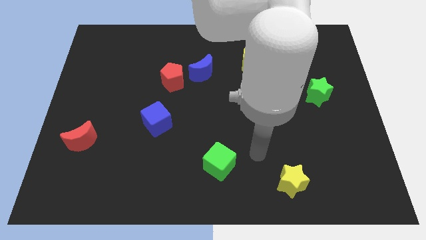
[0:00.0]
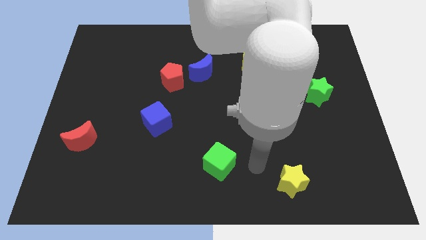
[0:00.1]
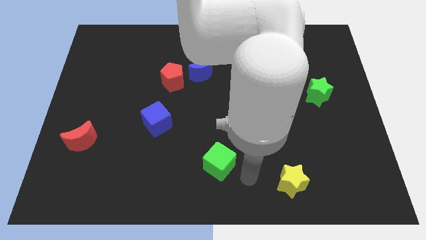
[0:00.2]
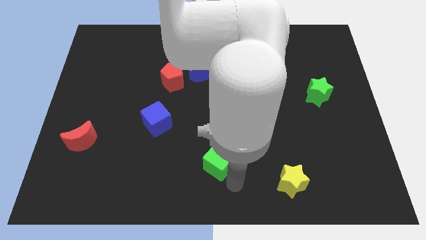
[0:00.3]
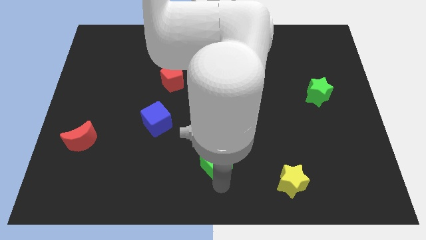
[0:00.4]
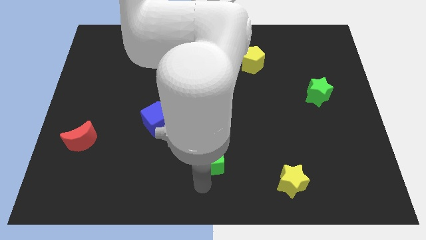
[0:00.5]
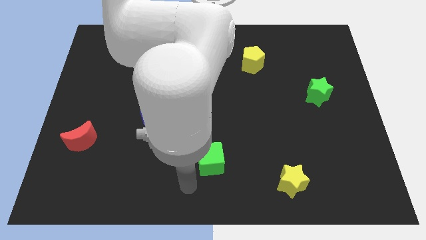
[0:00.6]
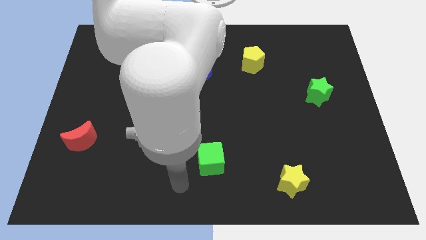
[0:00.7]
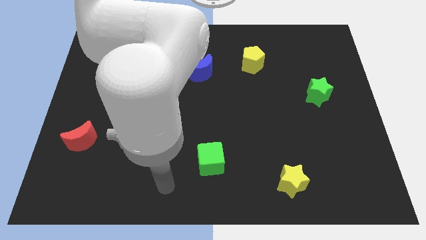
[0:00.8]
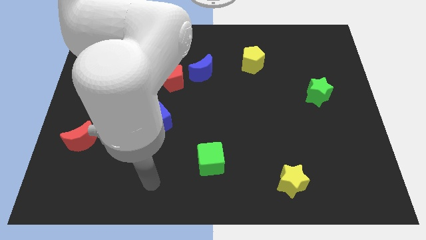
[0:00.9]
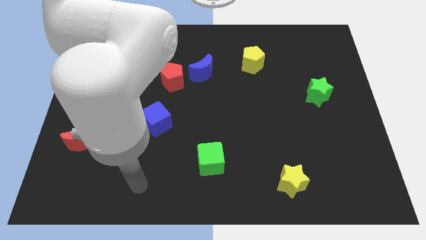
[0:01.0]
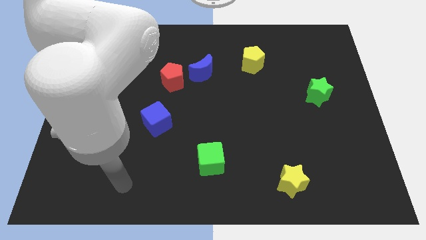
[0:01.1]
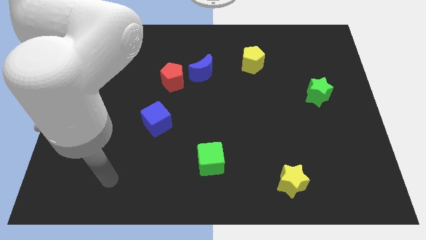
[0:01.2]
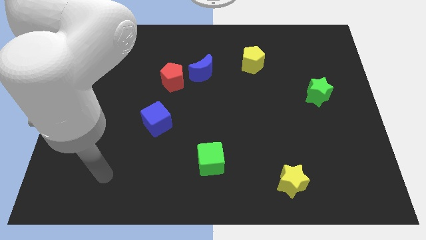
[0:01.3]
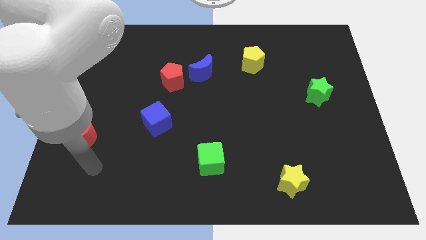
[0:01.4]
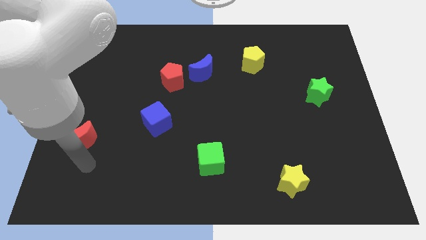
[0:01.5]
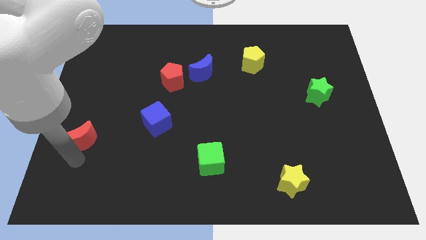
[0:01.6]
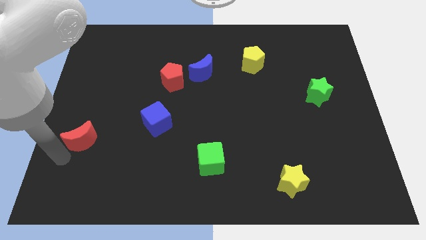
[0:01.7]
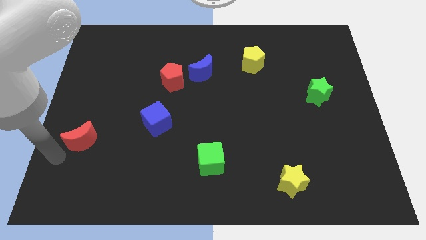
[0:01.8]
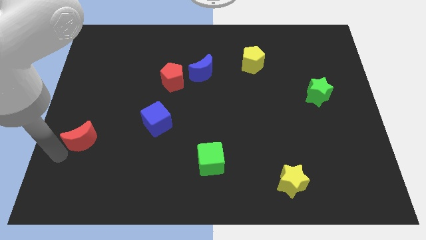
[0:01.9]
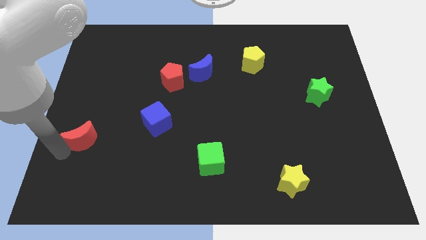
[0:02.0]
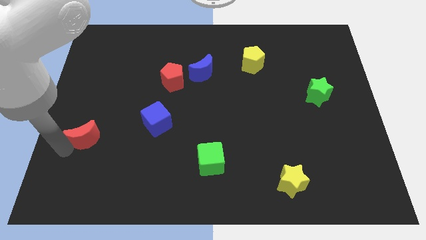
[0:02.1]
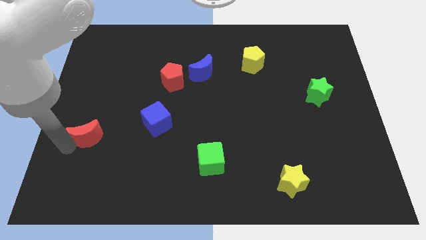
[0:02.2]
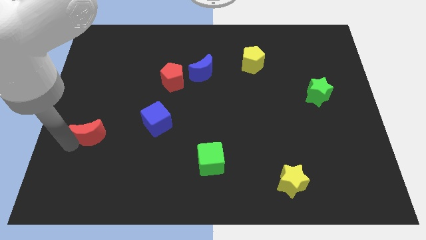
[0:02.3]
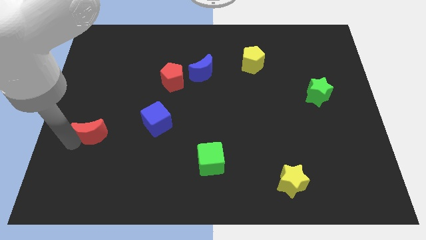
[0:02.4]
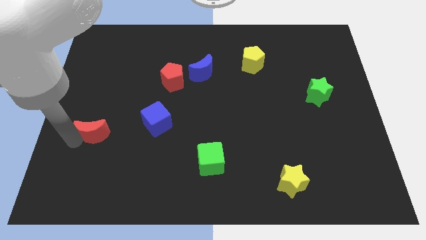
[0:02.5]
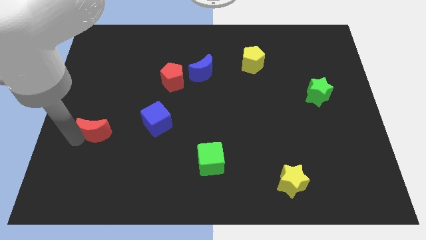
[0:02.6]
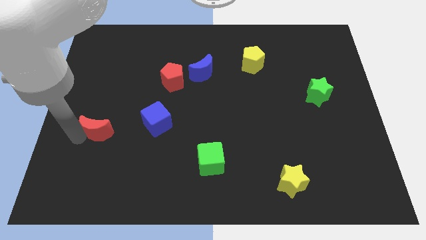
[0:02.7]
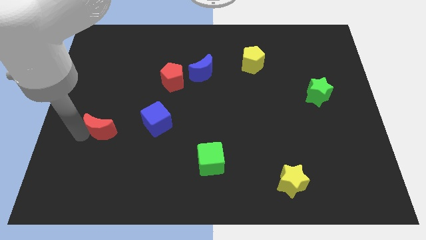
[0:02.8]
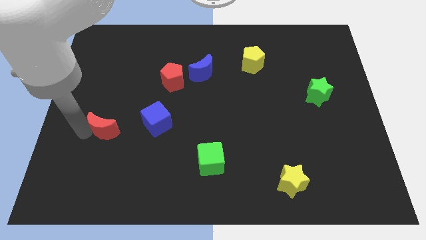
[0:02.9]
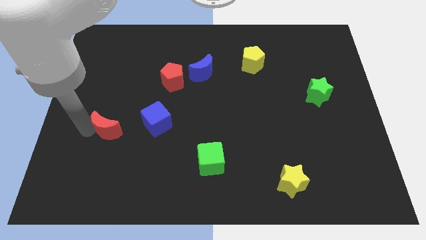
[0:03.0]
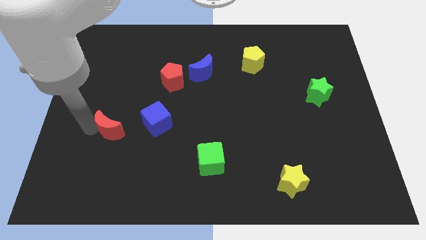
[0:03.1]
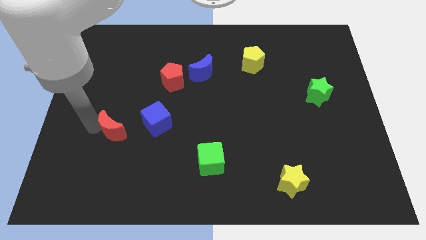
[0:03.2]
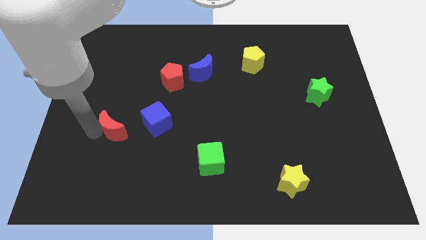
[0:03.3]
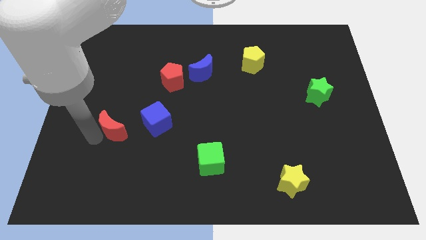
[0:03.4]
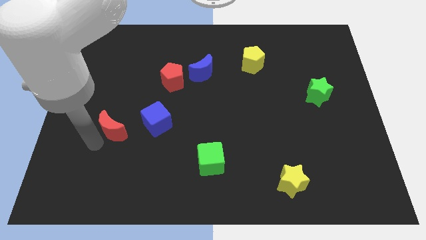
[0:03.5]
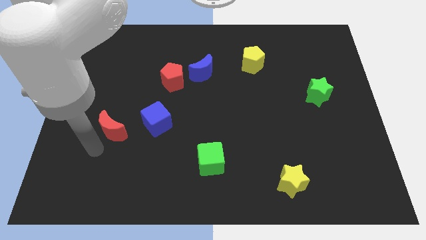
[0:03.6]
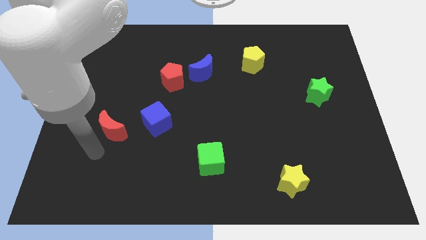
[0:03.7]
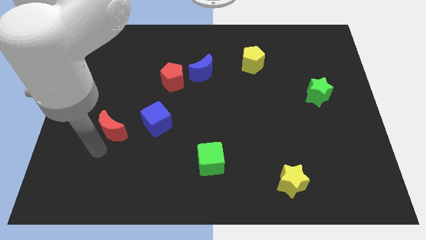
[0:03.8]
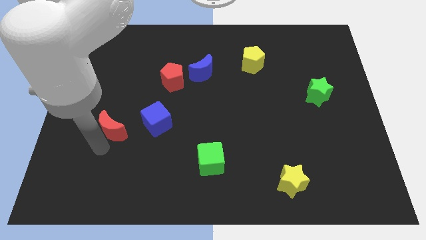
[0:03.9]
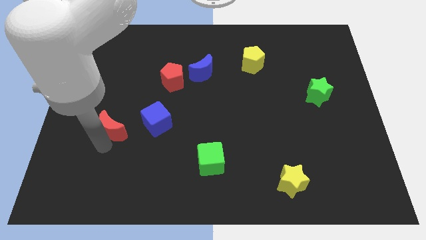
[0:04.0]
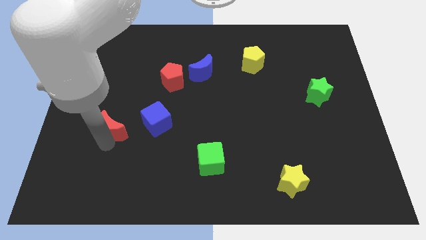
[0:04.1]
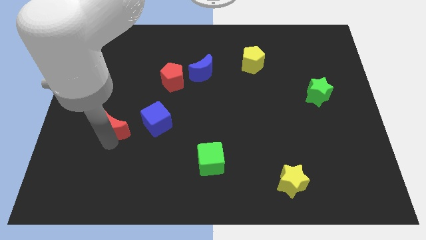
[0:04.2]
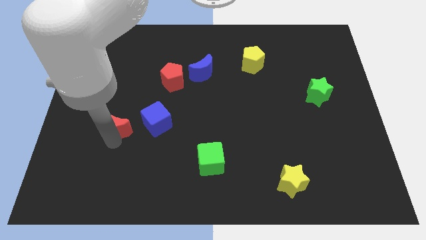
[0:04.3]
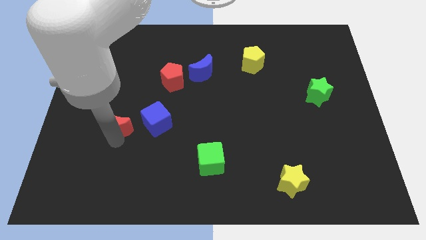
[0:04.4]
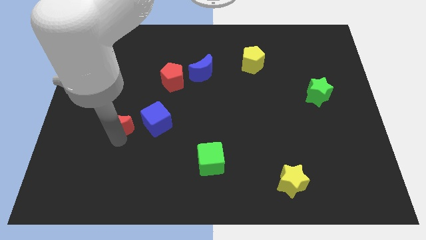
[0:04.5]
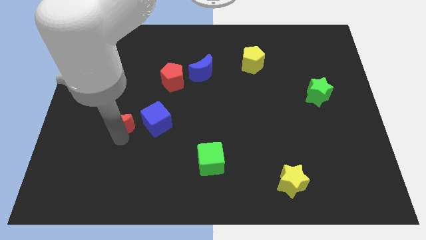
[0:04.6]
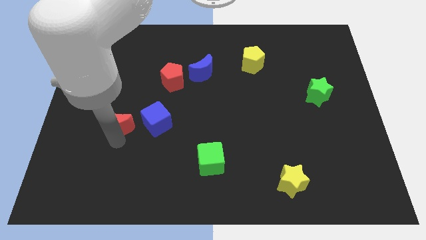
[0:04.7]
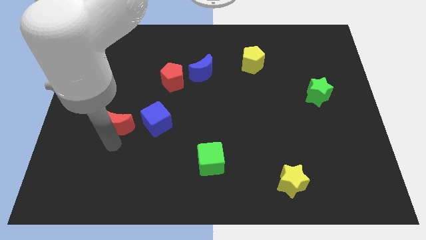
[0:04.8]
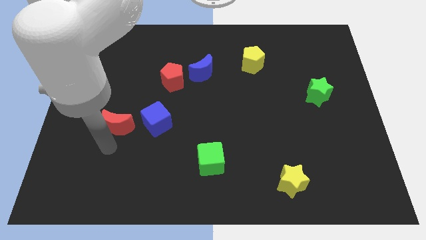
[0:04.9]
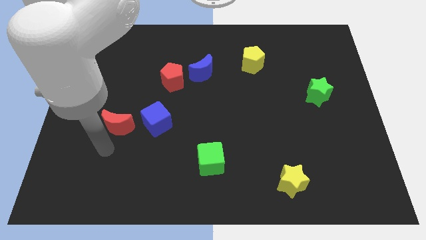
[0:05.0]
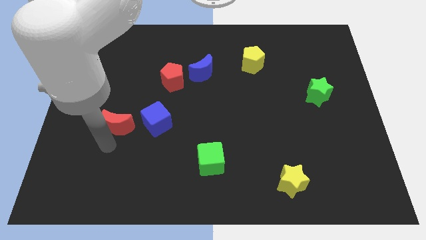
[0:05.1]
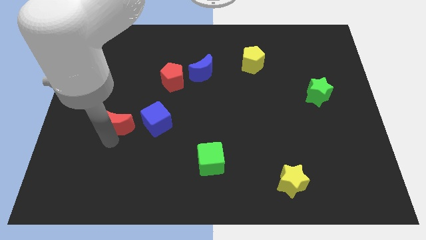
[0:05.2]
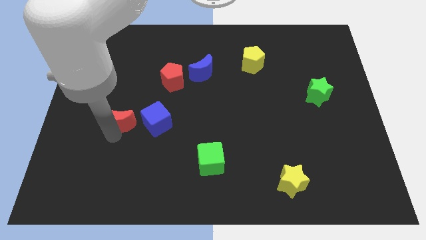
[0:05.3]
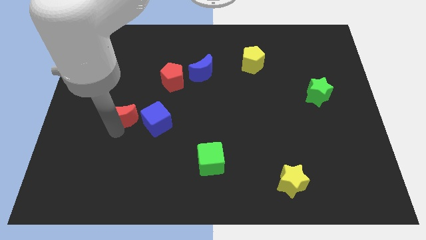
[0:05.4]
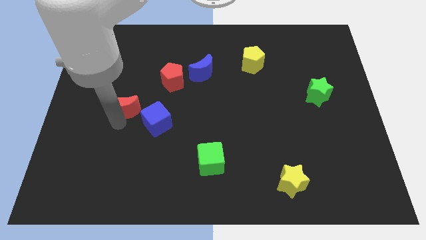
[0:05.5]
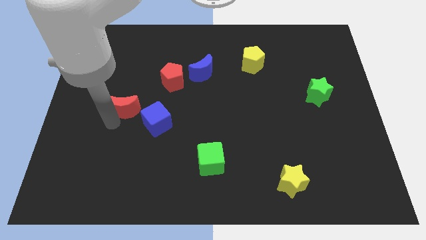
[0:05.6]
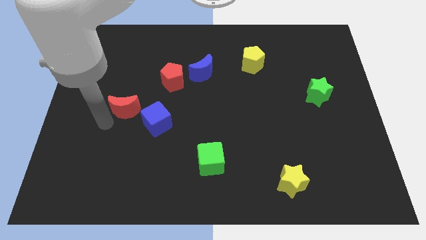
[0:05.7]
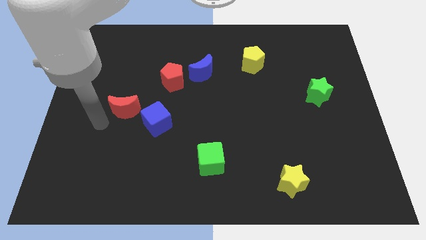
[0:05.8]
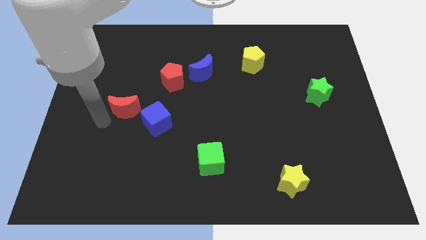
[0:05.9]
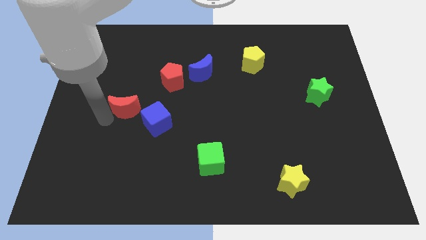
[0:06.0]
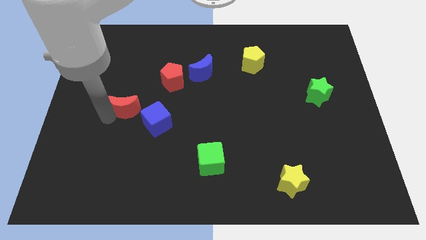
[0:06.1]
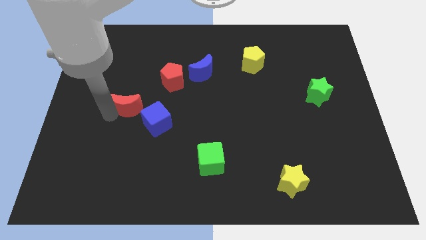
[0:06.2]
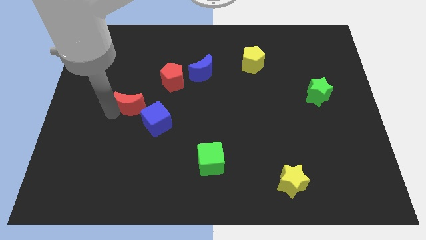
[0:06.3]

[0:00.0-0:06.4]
move the red moon to the bottom left of the red pentagon

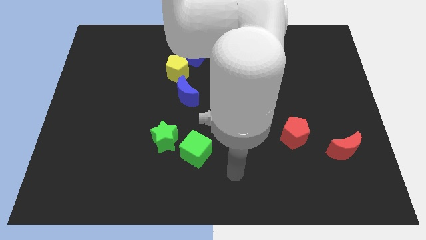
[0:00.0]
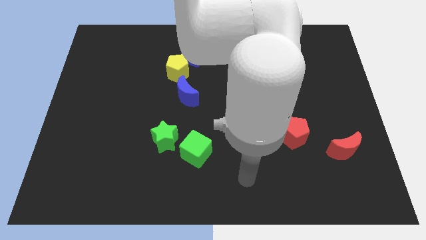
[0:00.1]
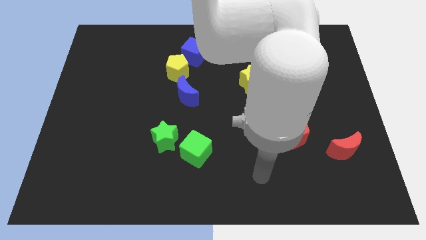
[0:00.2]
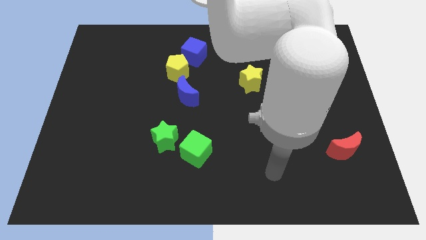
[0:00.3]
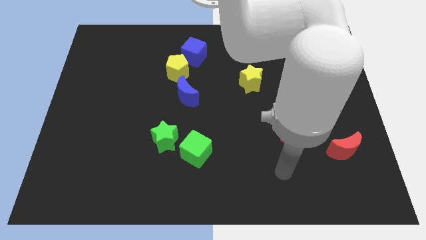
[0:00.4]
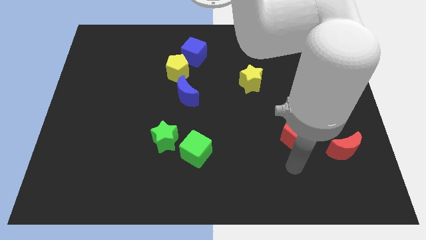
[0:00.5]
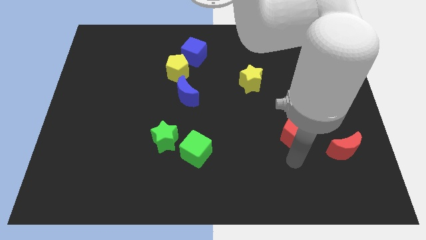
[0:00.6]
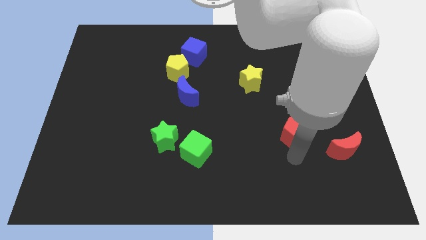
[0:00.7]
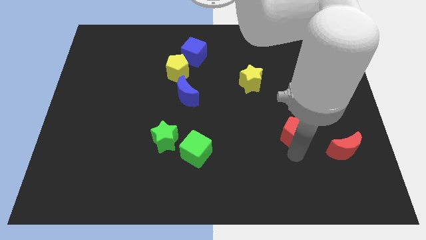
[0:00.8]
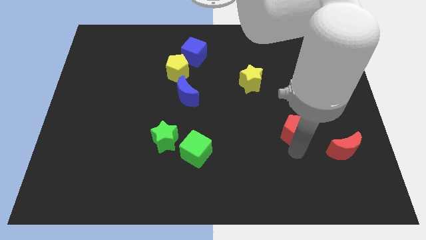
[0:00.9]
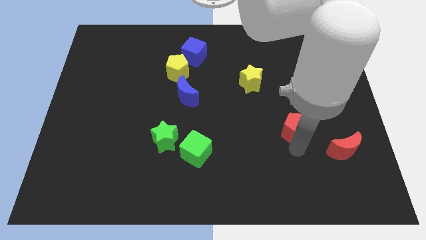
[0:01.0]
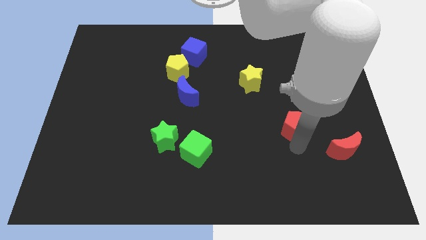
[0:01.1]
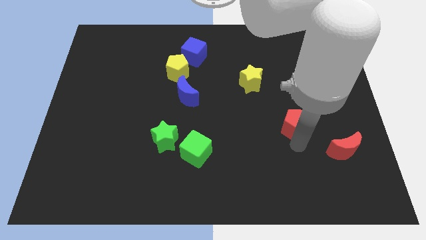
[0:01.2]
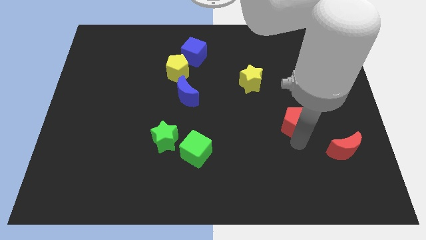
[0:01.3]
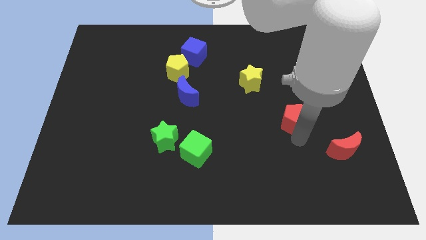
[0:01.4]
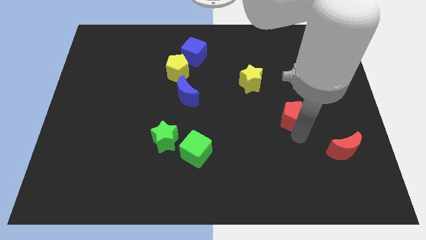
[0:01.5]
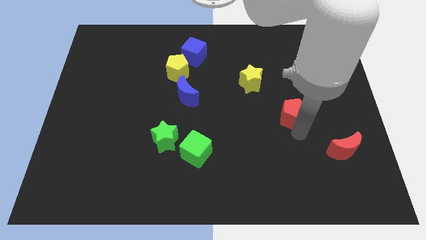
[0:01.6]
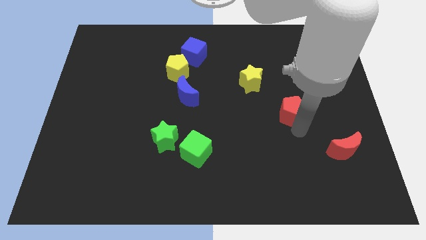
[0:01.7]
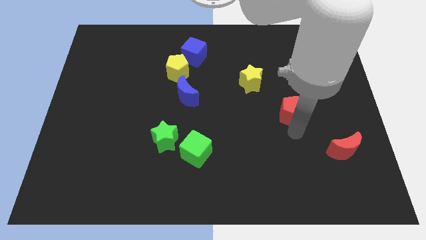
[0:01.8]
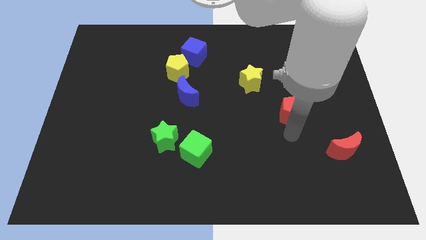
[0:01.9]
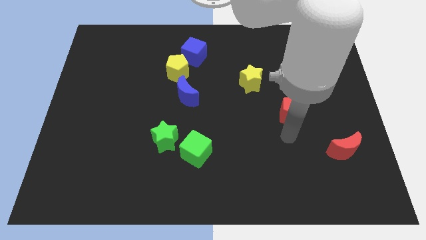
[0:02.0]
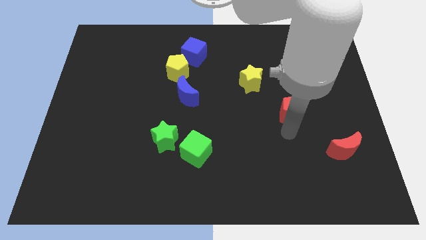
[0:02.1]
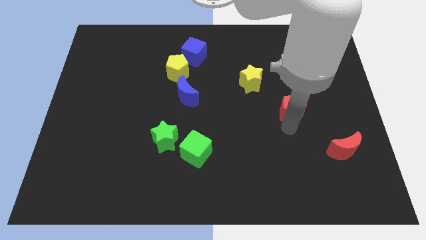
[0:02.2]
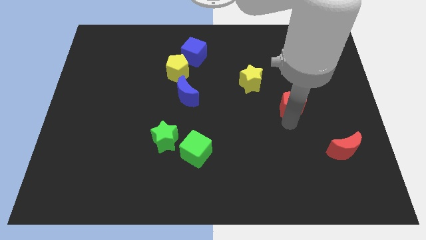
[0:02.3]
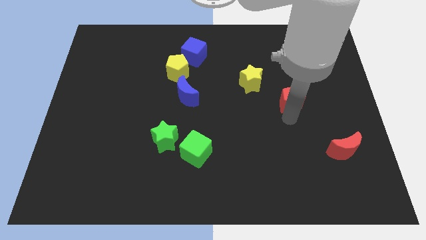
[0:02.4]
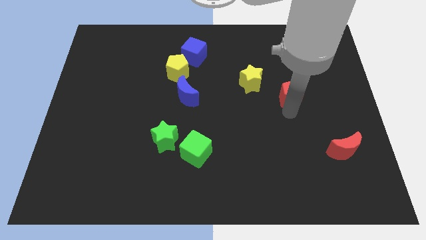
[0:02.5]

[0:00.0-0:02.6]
move the red pentagon to the right side of the yellow star
